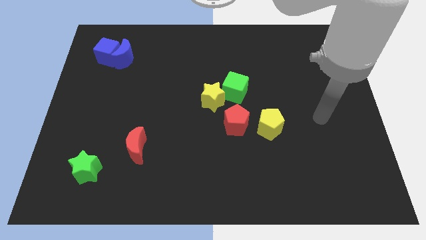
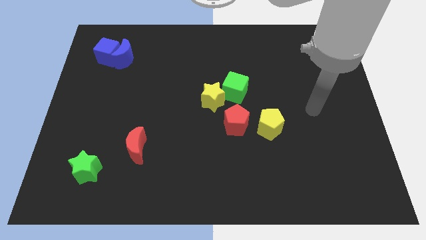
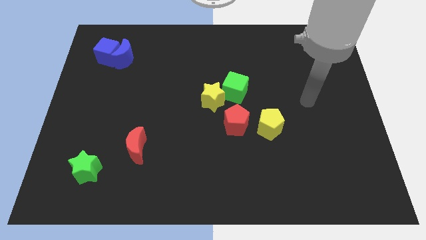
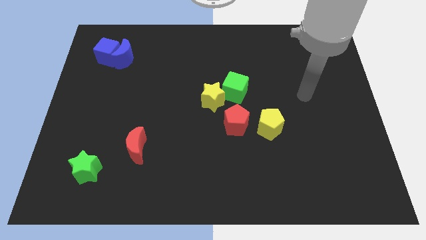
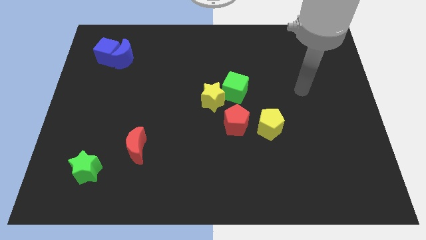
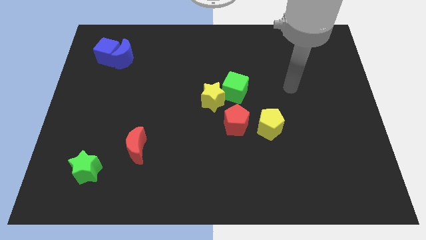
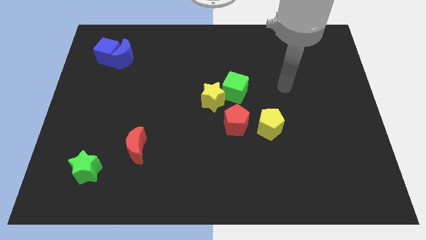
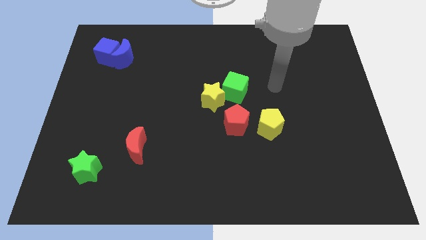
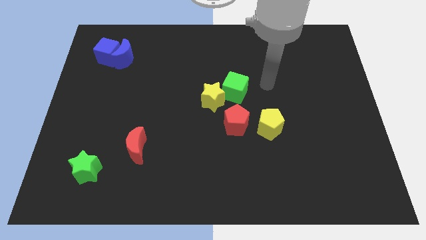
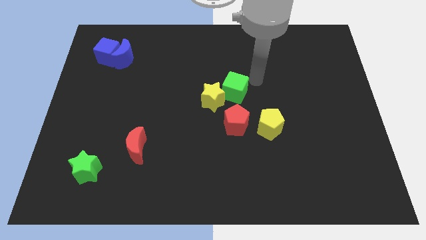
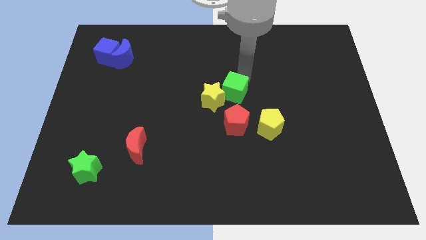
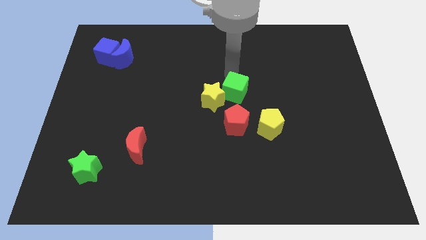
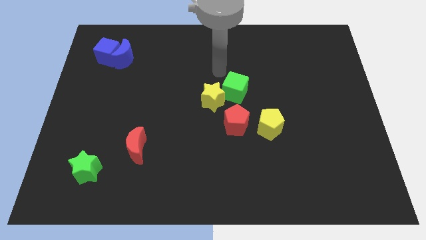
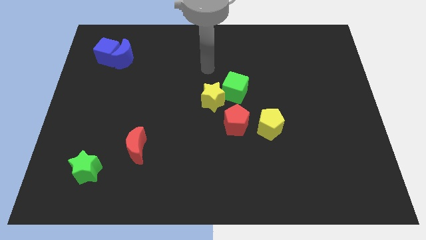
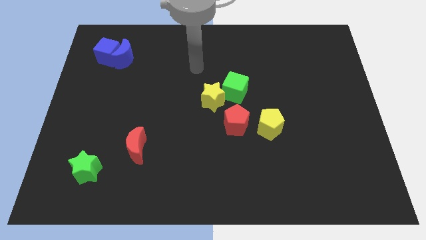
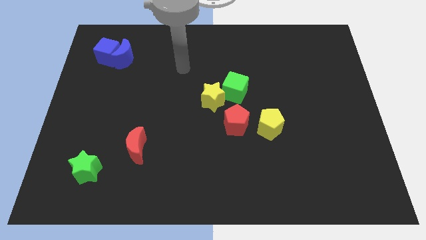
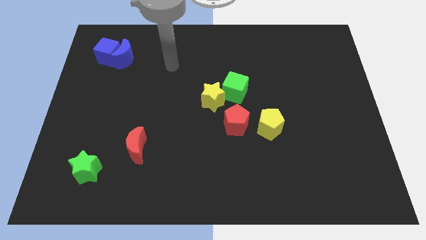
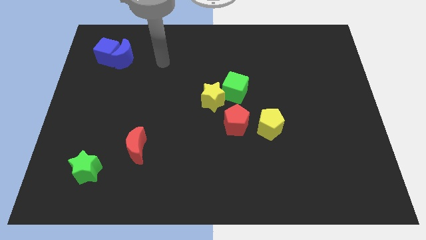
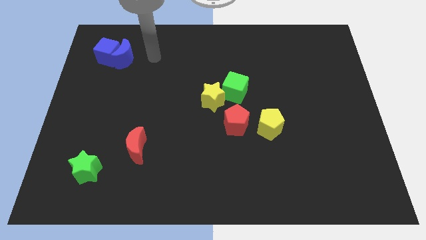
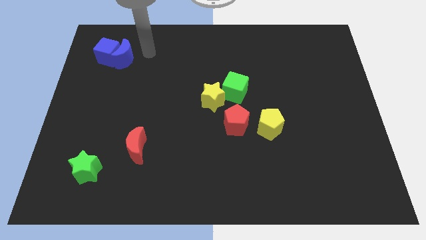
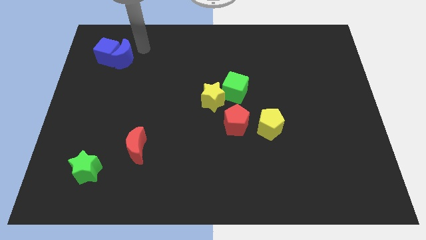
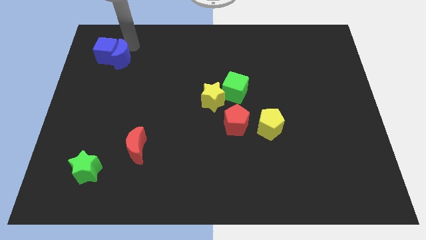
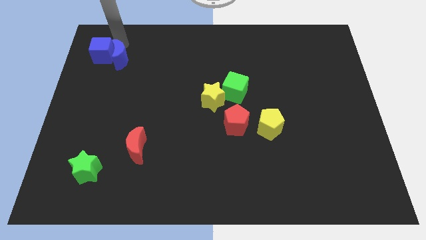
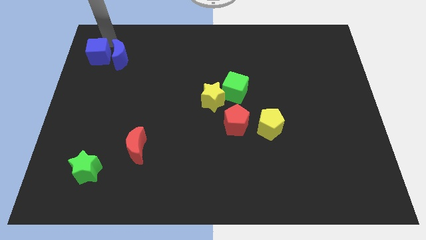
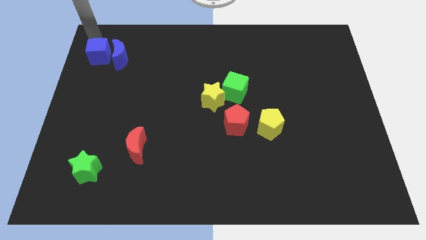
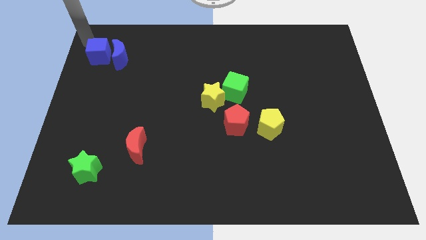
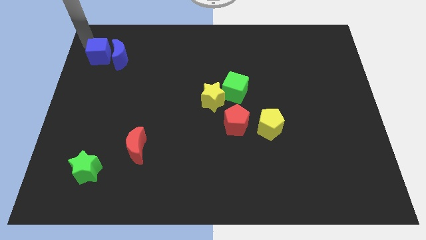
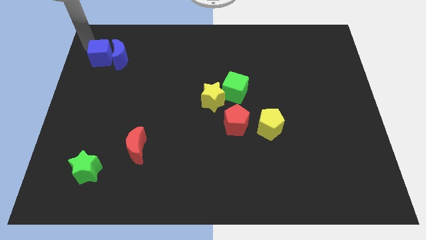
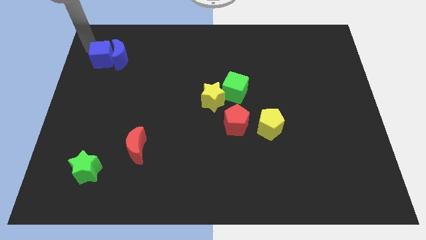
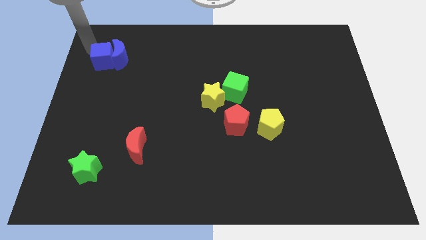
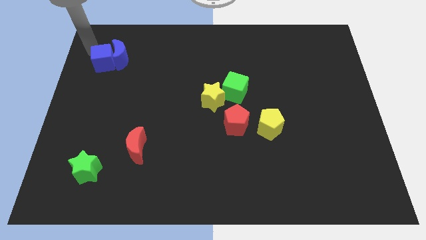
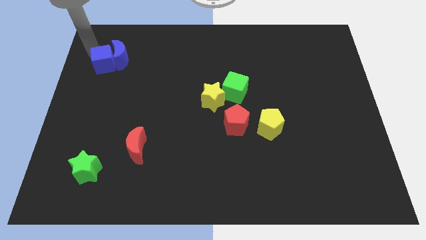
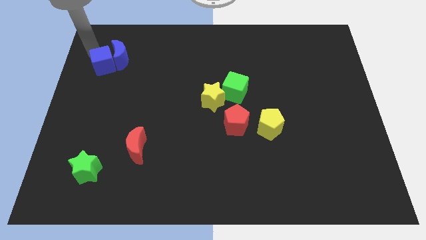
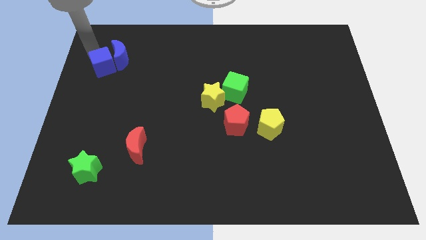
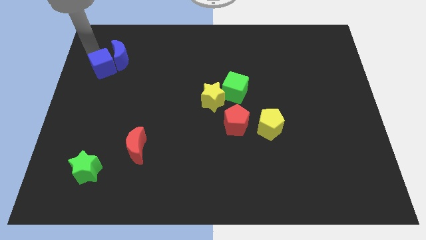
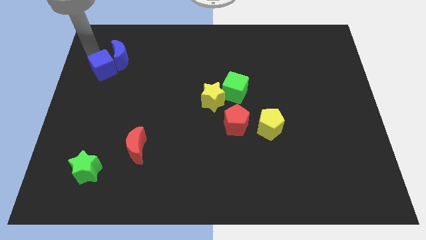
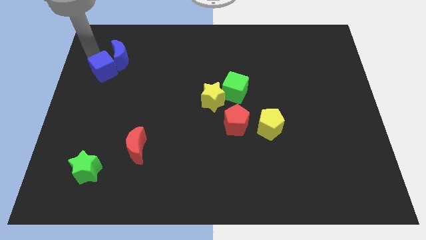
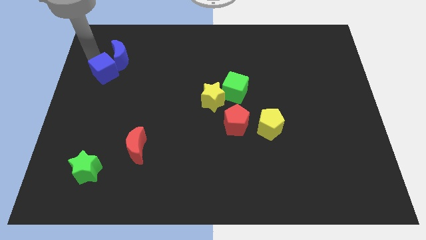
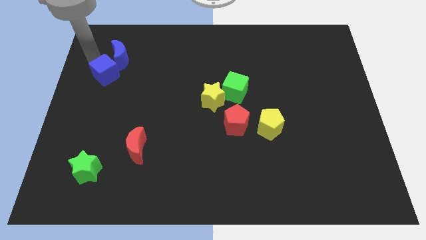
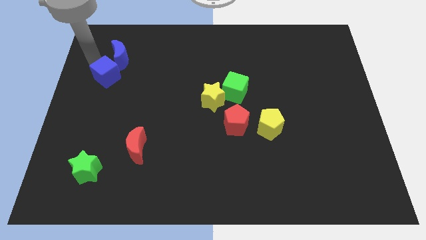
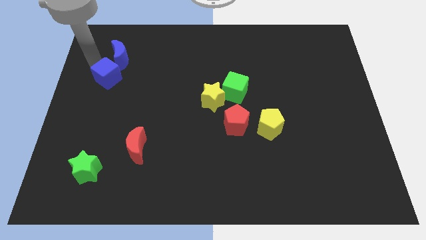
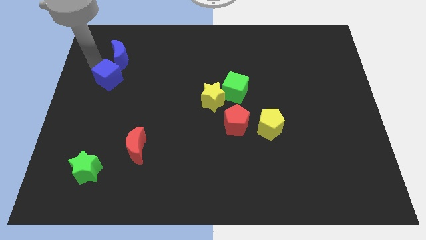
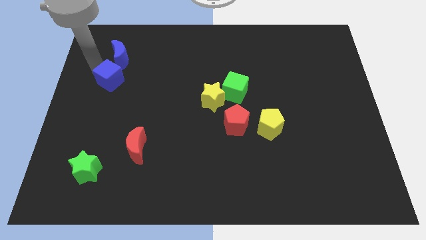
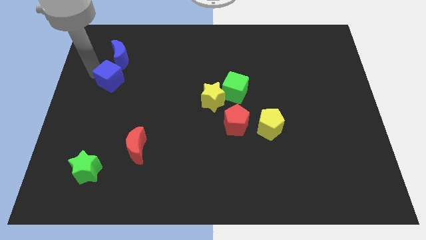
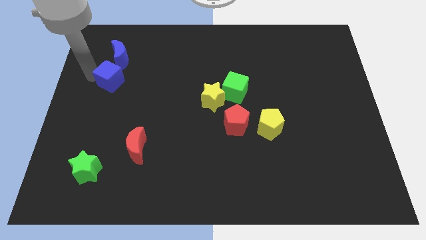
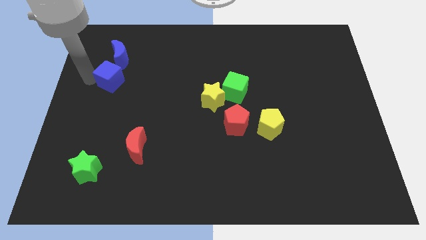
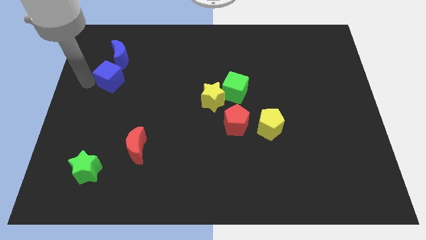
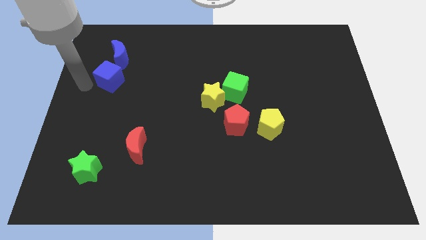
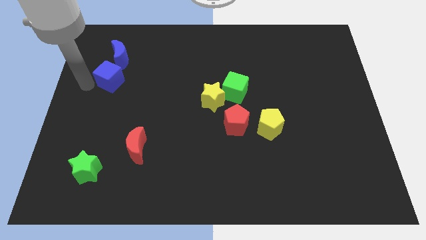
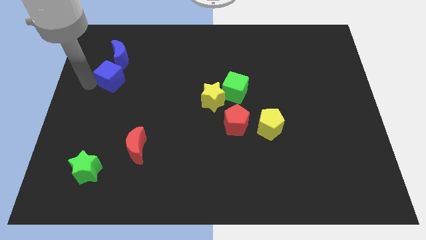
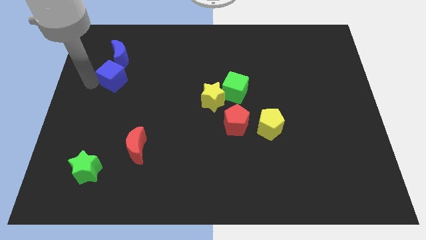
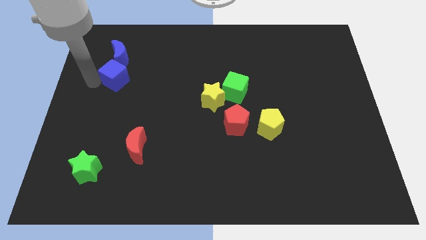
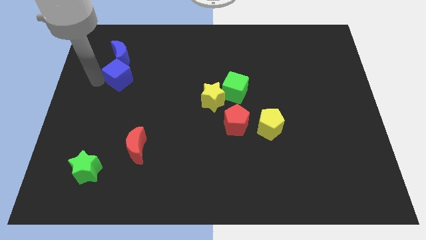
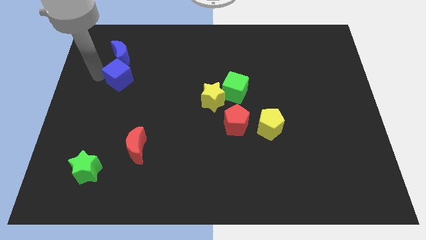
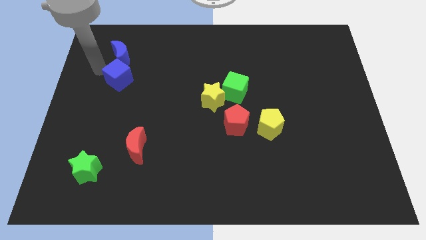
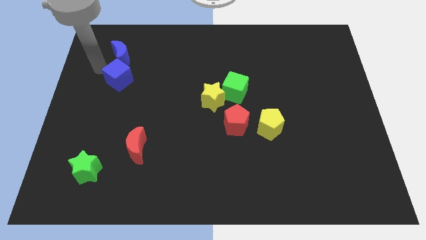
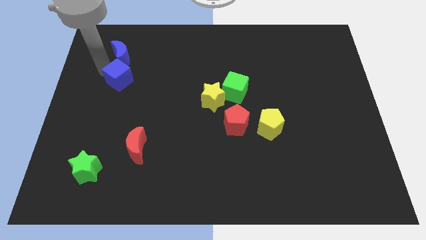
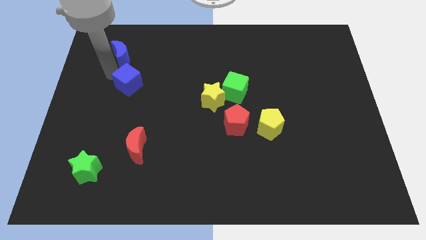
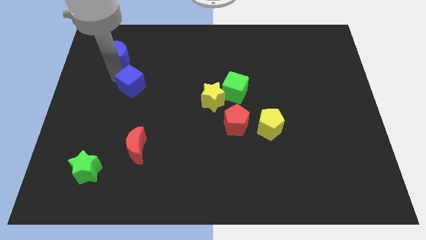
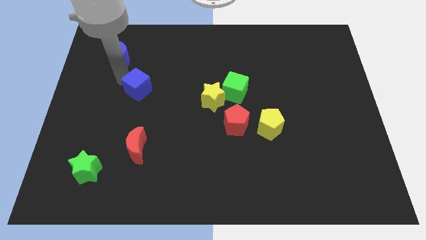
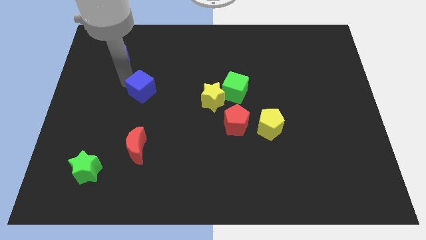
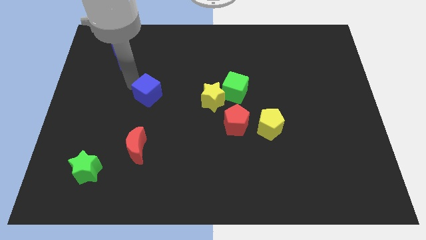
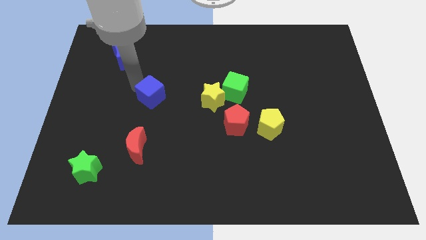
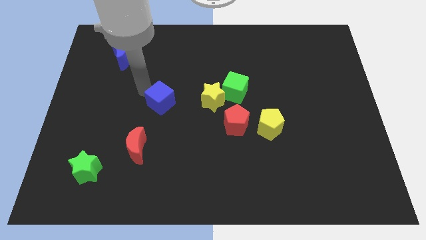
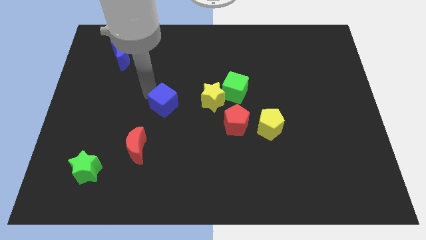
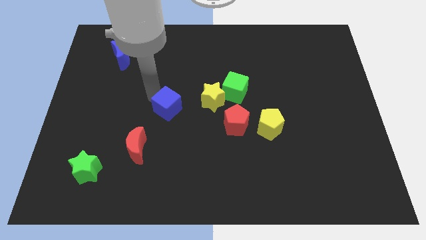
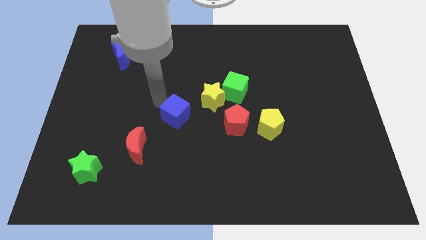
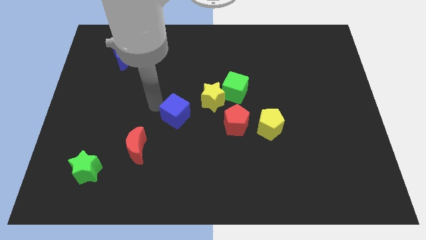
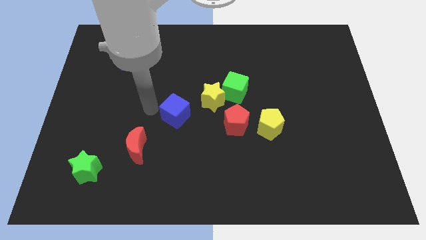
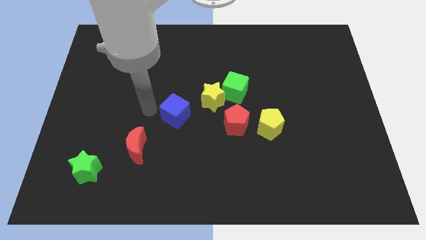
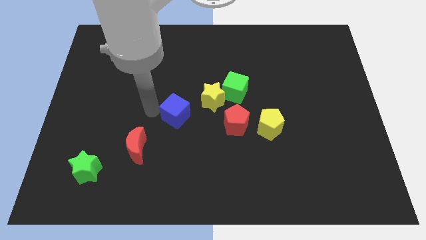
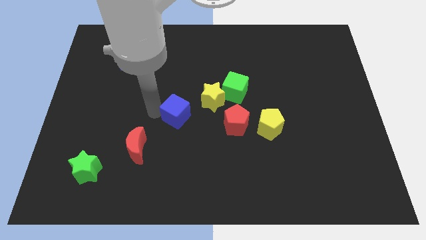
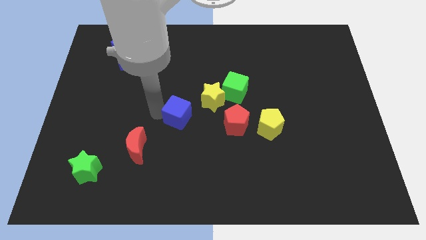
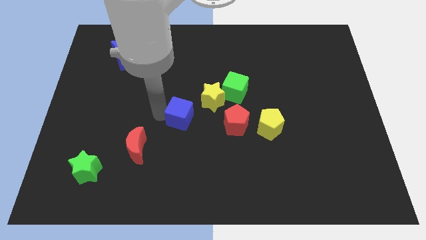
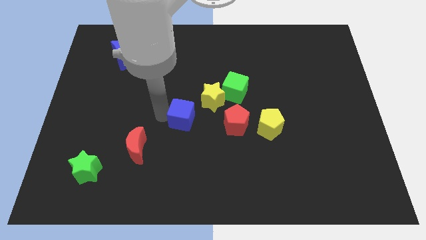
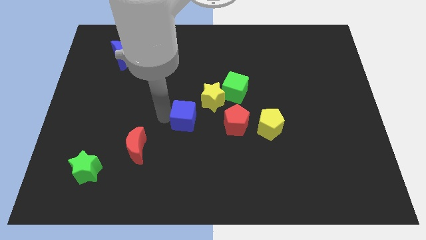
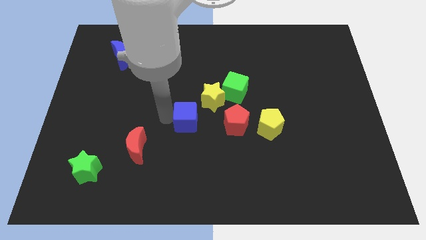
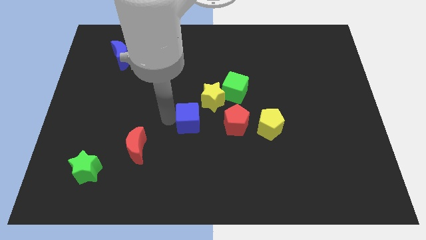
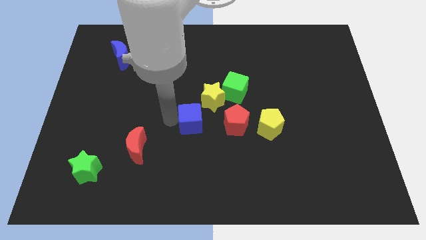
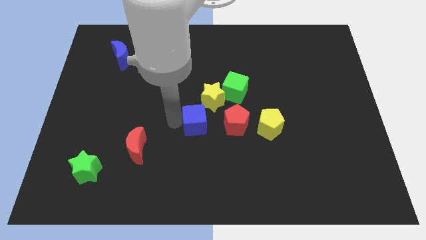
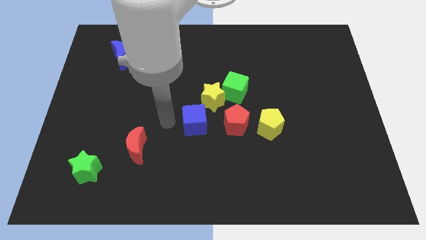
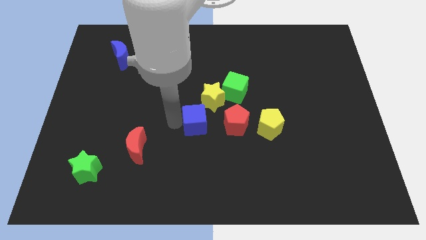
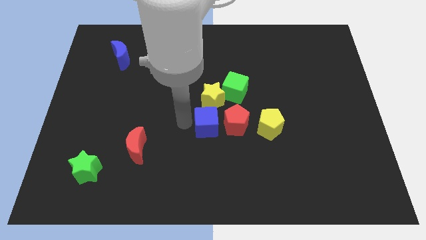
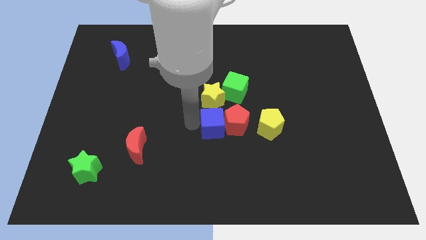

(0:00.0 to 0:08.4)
put the blue cube to the red pentagon

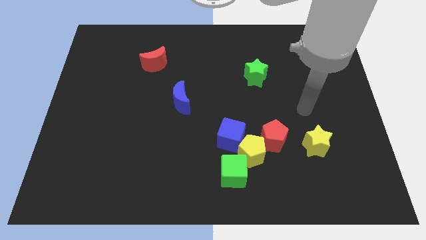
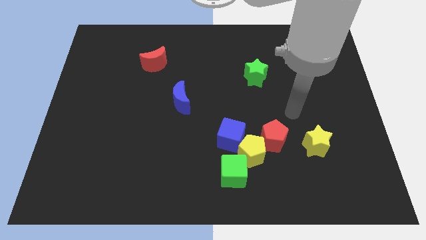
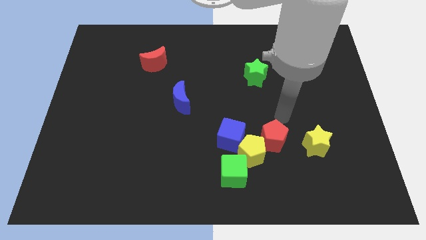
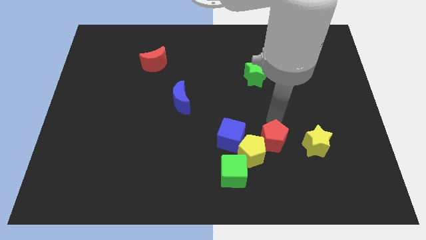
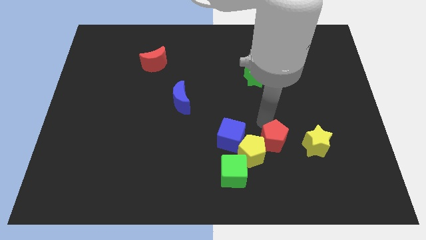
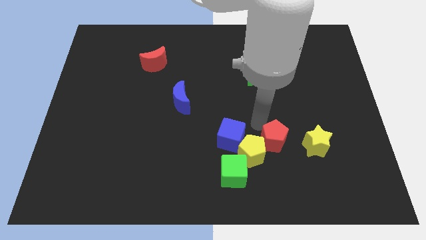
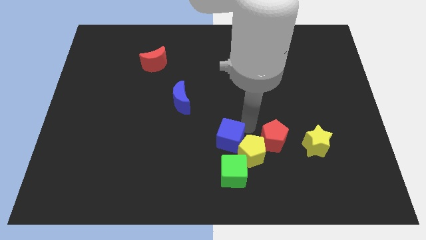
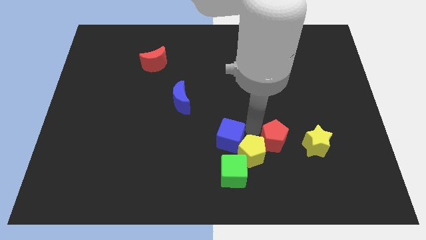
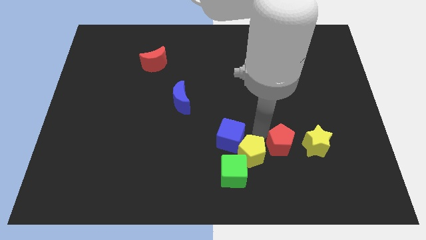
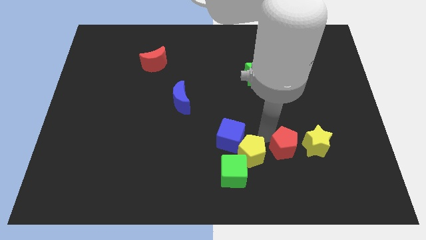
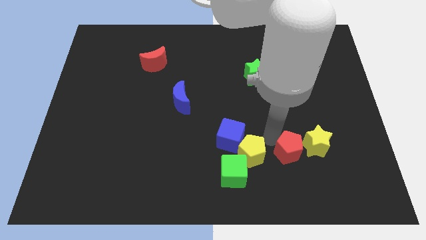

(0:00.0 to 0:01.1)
push the red pentagon towards the yellow star
